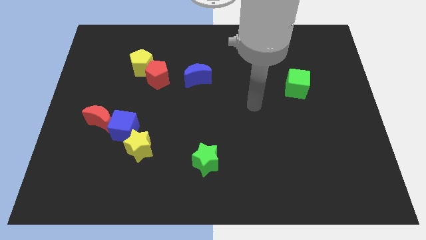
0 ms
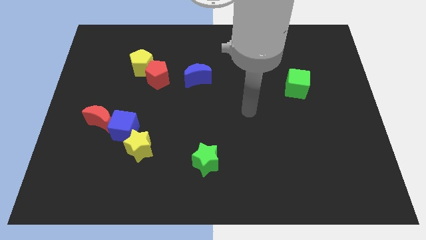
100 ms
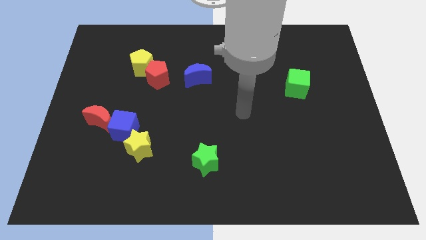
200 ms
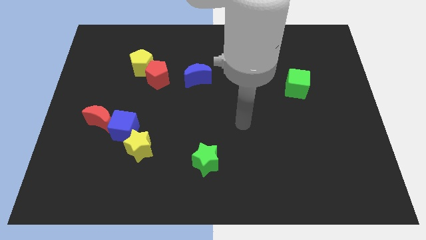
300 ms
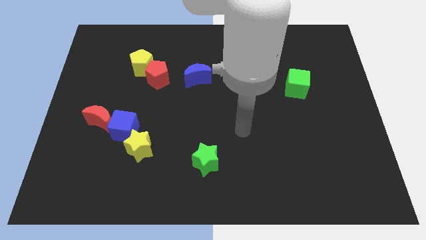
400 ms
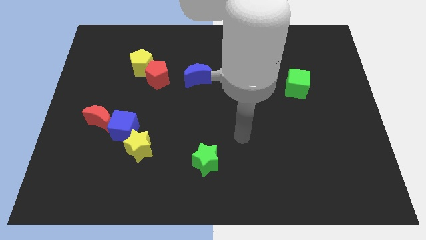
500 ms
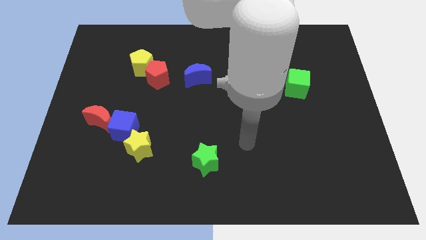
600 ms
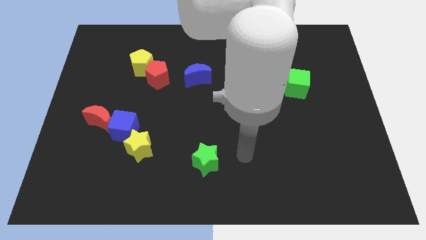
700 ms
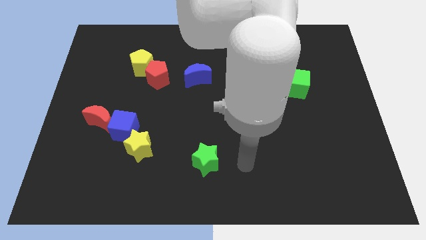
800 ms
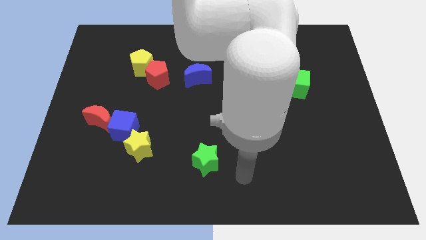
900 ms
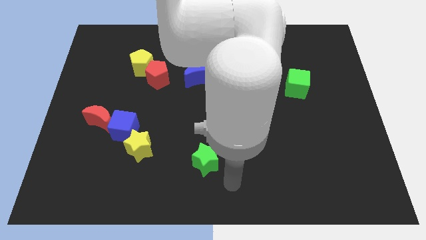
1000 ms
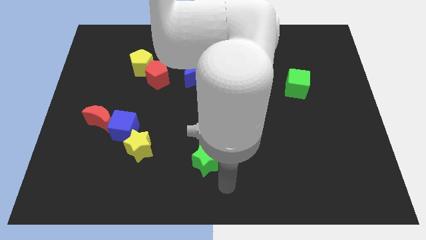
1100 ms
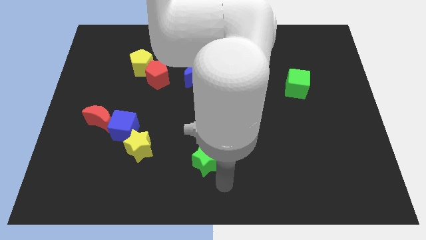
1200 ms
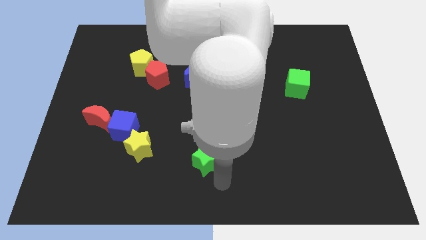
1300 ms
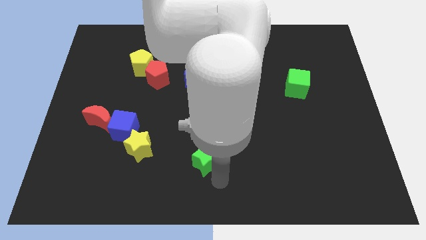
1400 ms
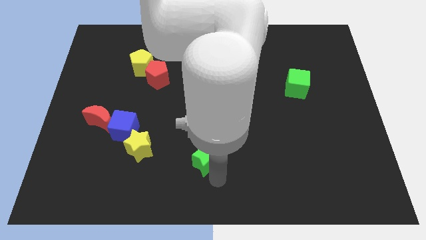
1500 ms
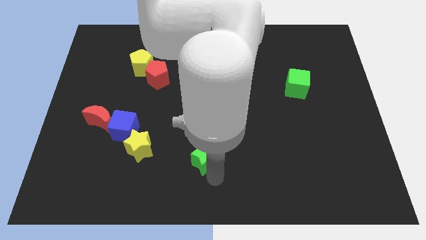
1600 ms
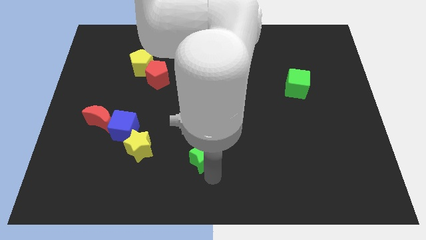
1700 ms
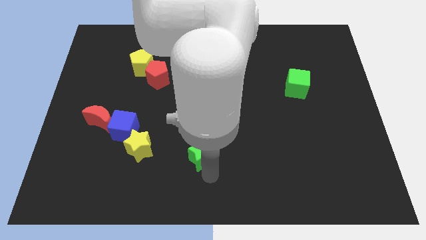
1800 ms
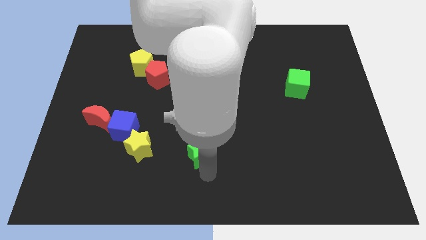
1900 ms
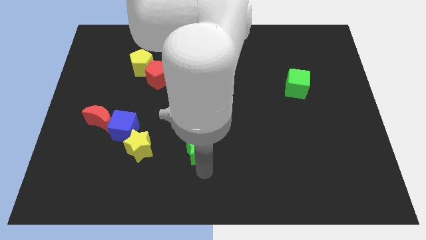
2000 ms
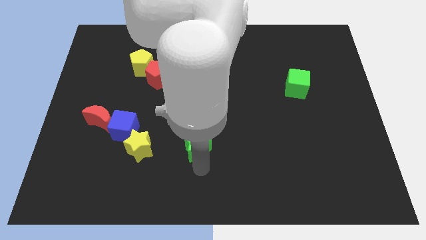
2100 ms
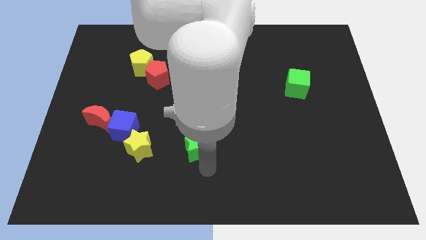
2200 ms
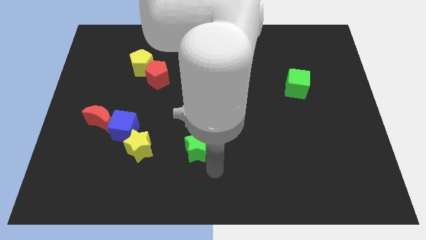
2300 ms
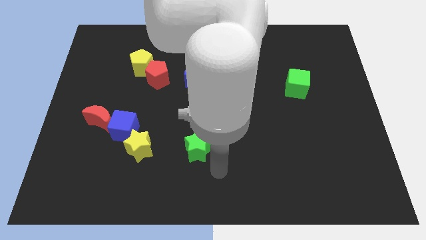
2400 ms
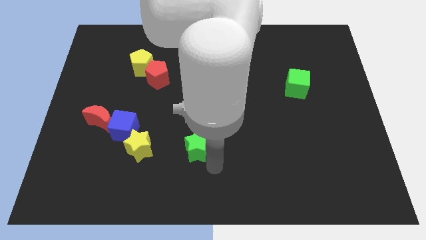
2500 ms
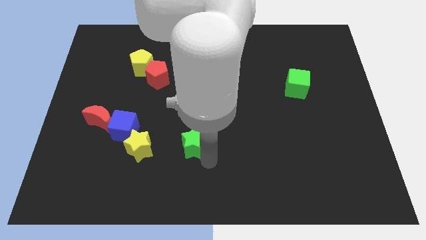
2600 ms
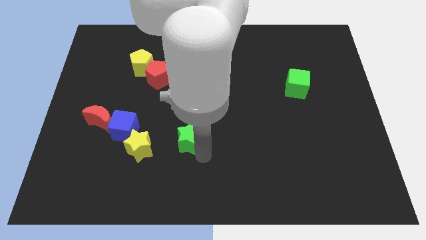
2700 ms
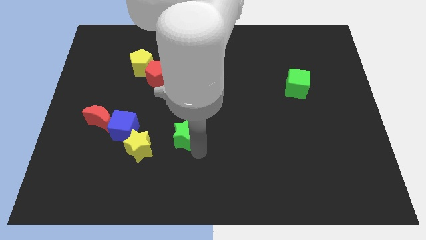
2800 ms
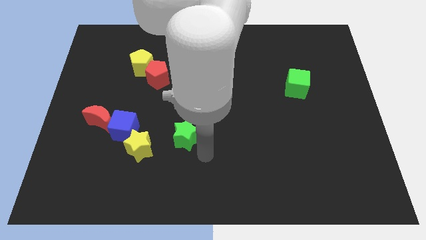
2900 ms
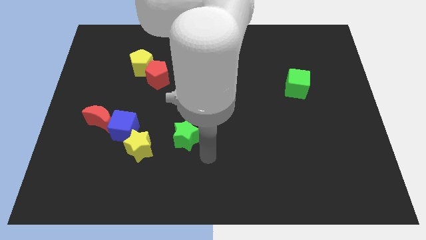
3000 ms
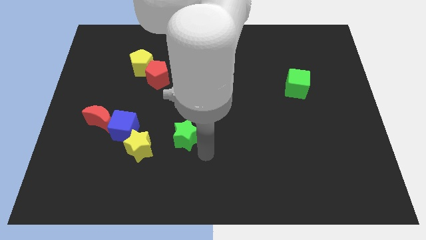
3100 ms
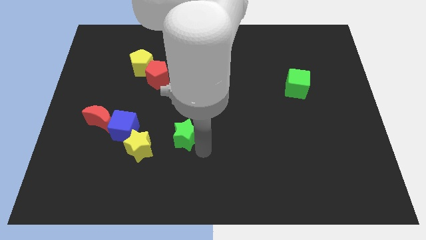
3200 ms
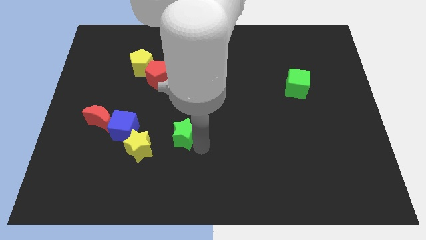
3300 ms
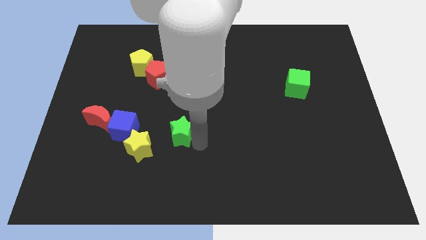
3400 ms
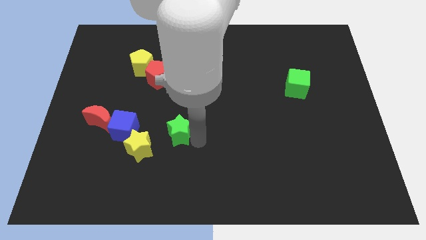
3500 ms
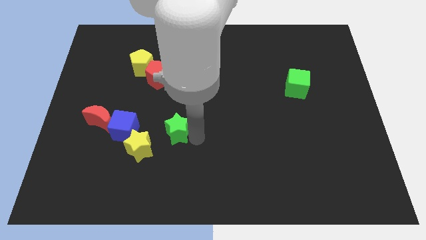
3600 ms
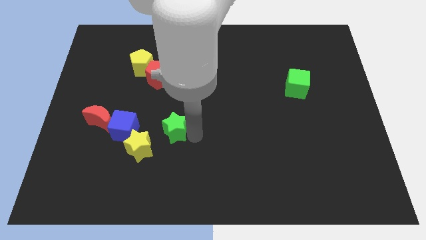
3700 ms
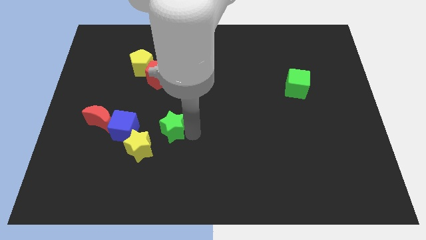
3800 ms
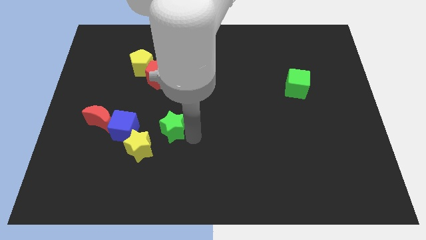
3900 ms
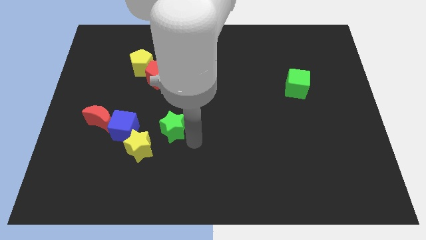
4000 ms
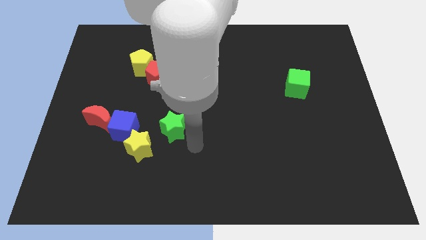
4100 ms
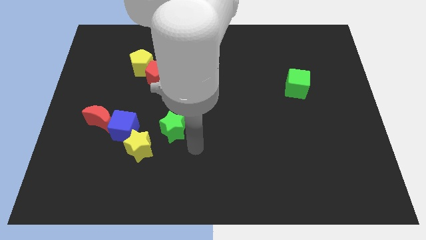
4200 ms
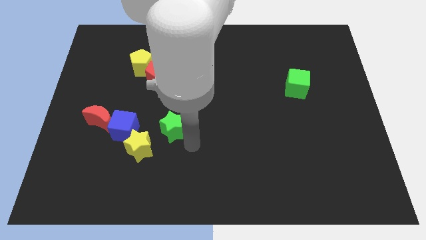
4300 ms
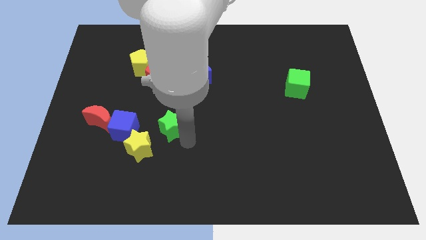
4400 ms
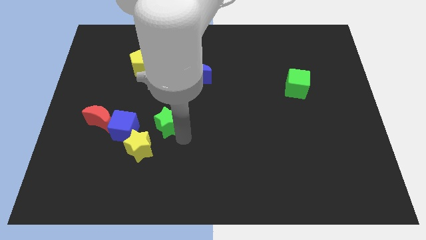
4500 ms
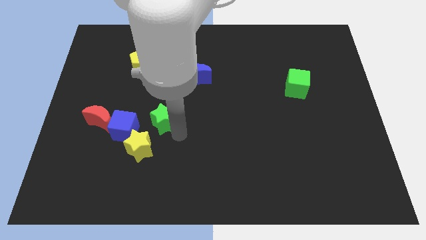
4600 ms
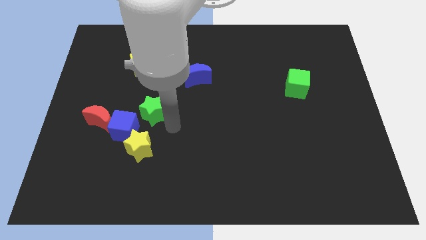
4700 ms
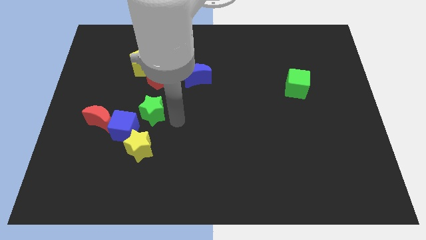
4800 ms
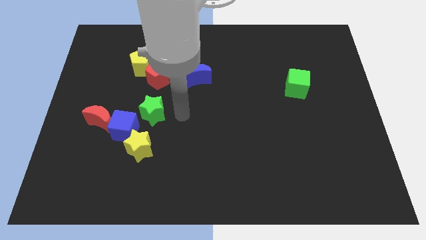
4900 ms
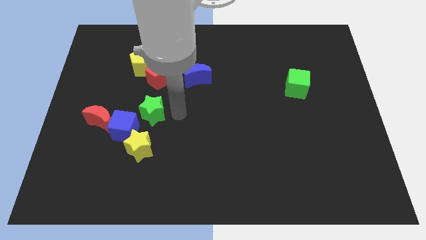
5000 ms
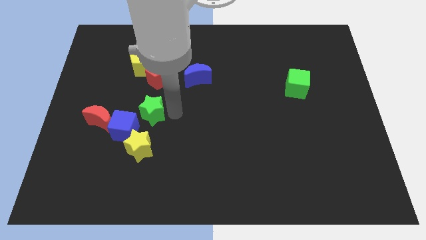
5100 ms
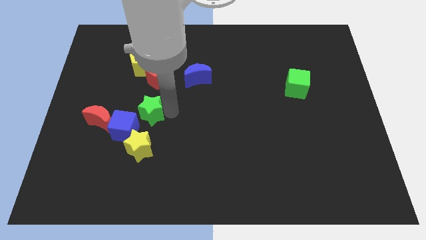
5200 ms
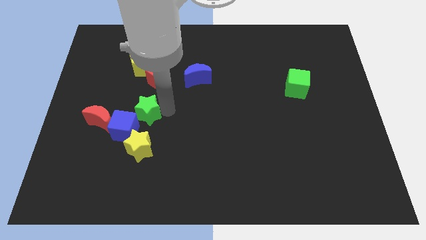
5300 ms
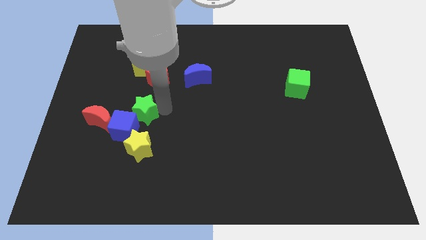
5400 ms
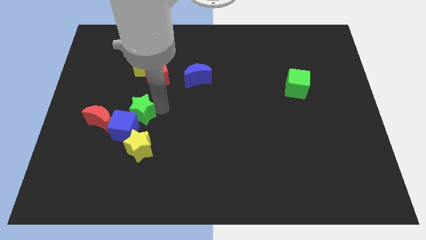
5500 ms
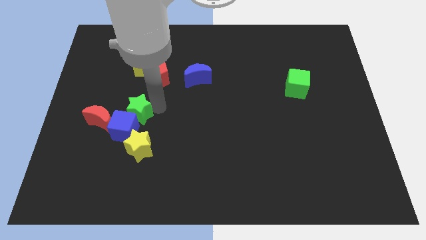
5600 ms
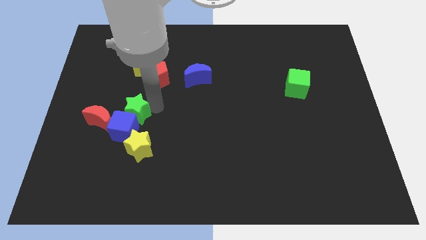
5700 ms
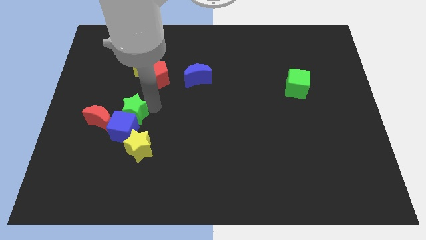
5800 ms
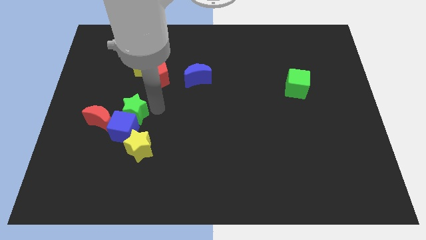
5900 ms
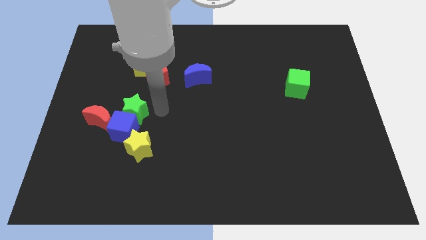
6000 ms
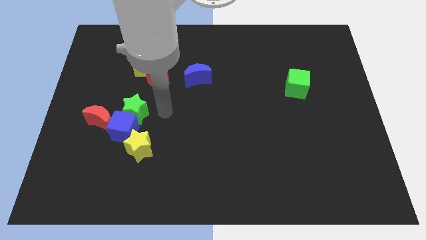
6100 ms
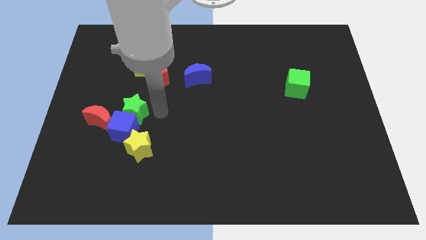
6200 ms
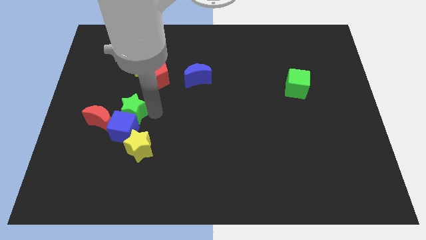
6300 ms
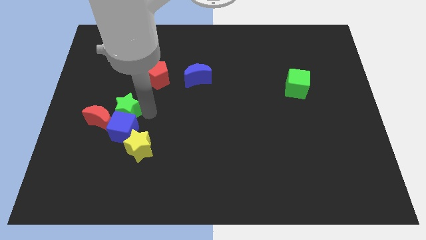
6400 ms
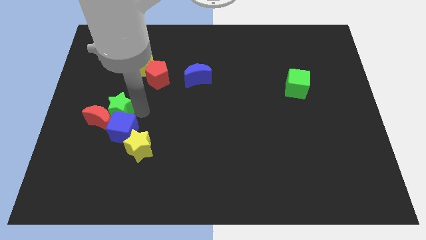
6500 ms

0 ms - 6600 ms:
slide the green star close to the red moon

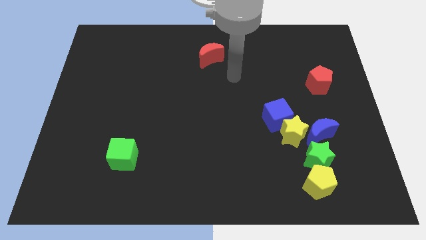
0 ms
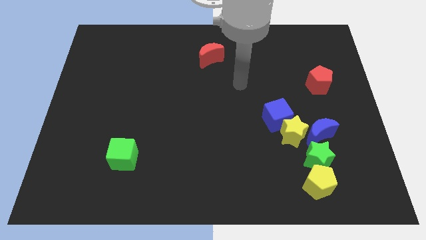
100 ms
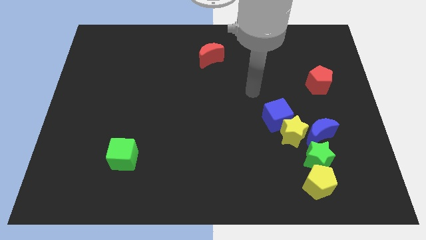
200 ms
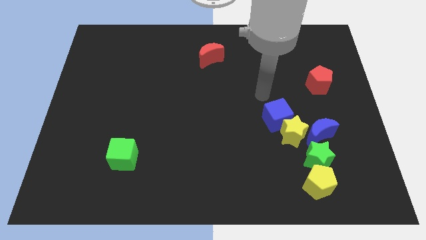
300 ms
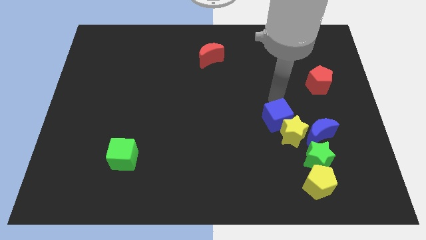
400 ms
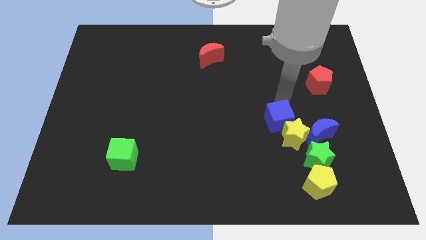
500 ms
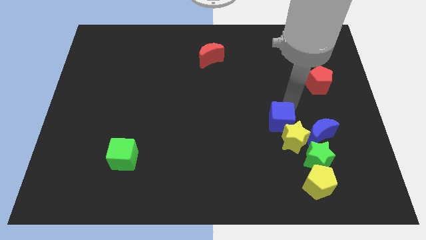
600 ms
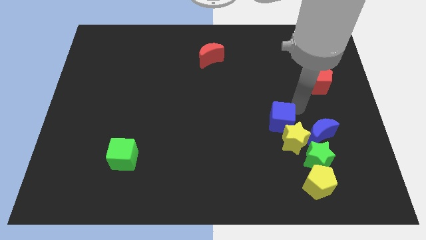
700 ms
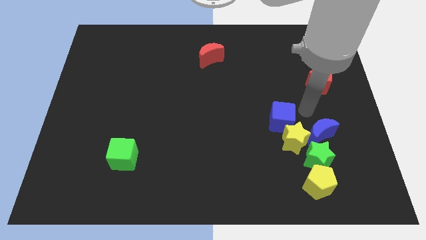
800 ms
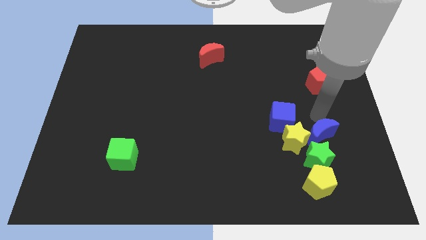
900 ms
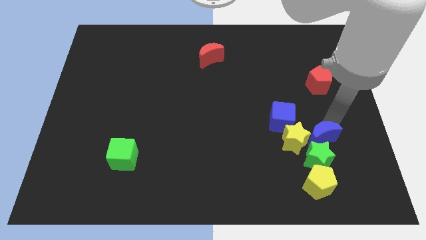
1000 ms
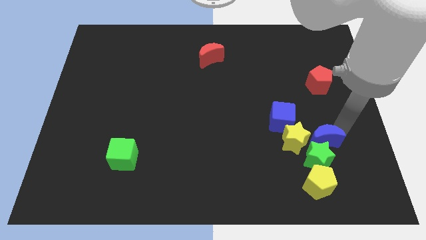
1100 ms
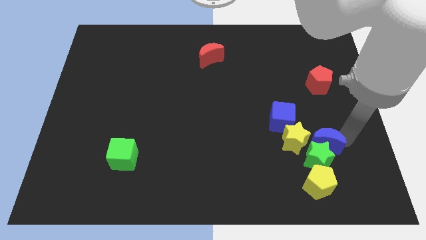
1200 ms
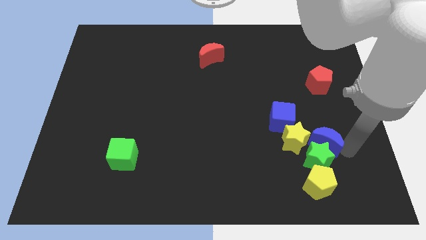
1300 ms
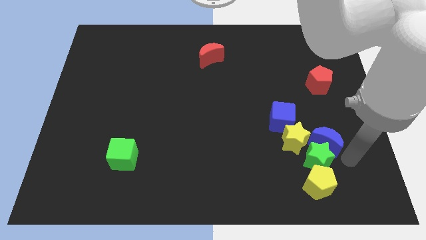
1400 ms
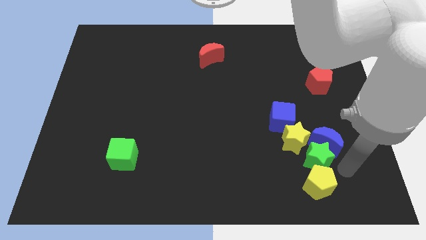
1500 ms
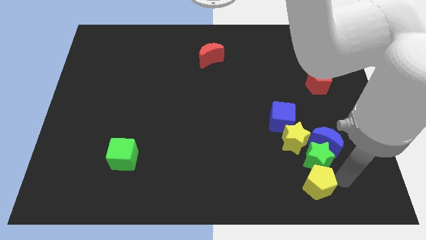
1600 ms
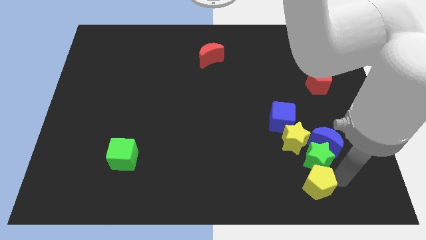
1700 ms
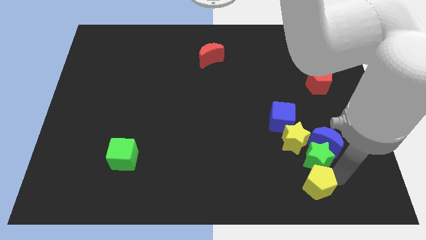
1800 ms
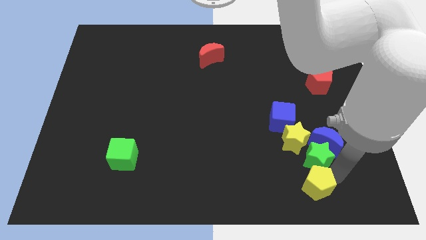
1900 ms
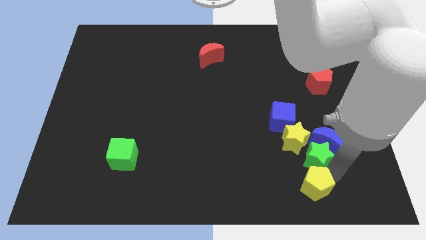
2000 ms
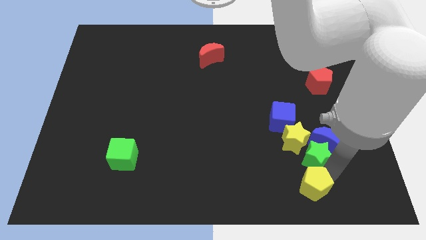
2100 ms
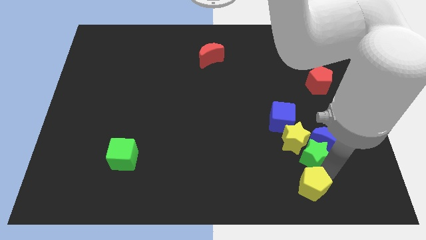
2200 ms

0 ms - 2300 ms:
slide the green star next to the yellow star
